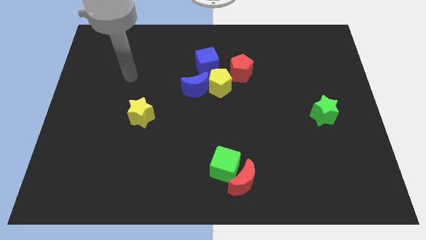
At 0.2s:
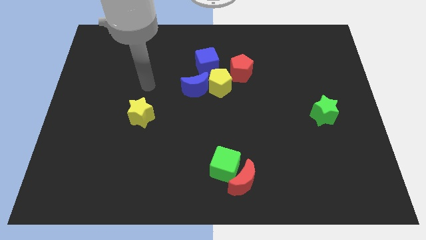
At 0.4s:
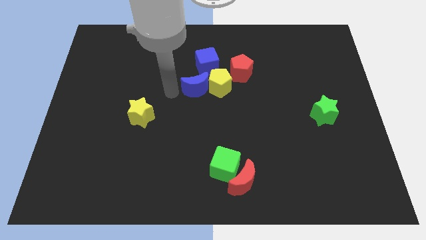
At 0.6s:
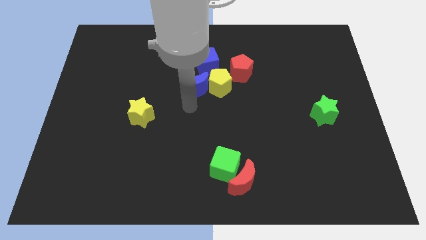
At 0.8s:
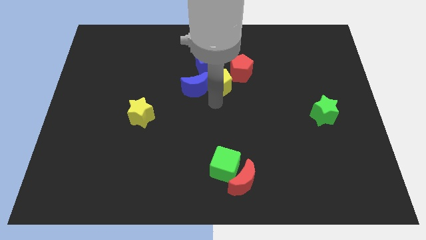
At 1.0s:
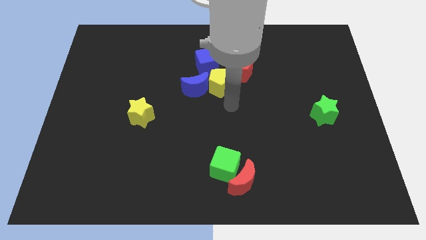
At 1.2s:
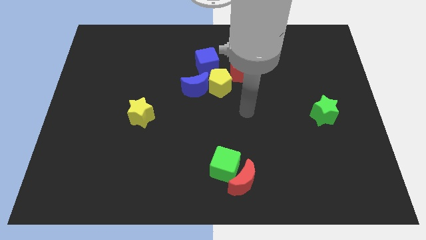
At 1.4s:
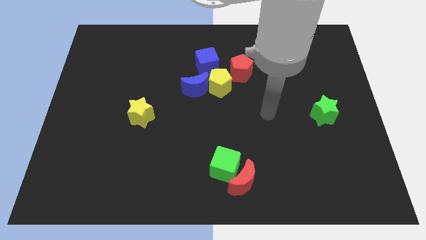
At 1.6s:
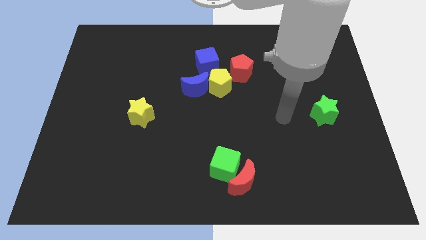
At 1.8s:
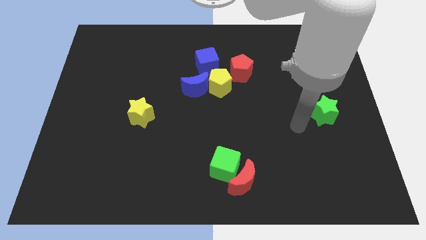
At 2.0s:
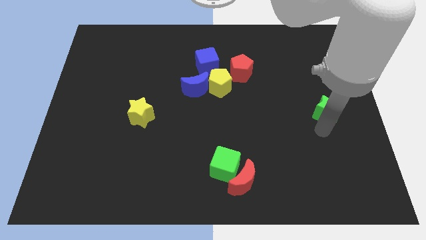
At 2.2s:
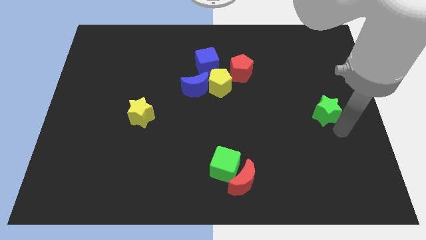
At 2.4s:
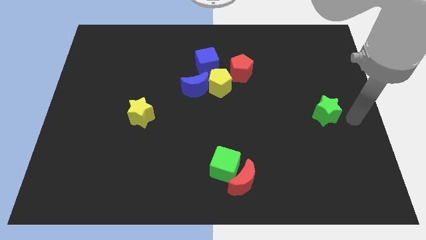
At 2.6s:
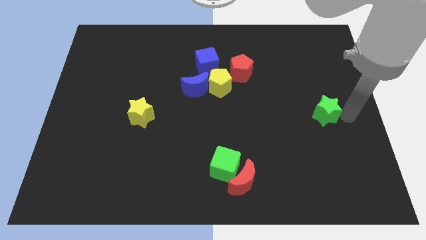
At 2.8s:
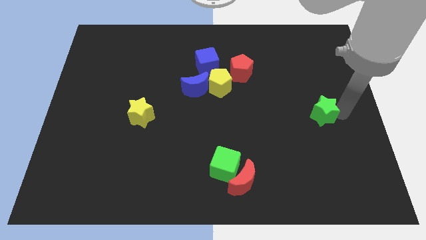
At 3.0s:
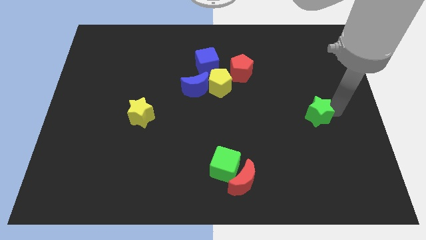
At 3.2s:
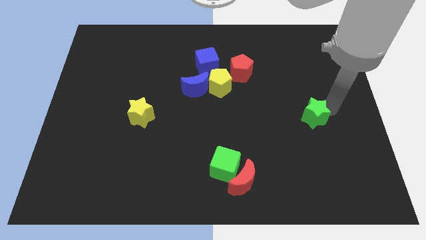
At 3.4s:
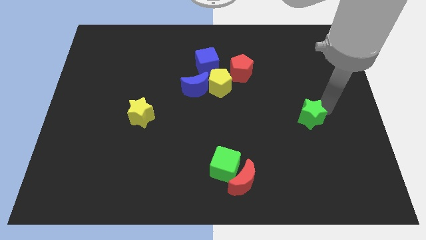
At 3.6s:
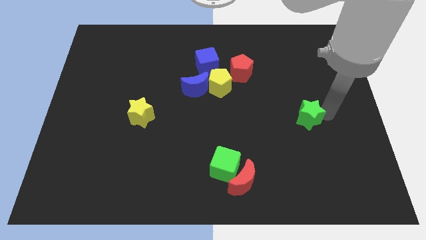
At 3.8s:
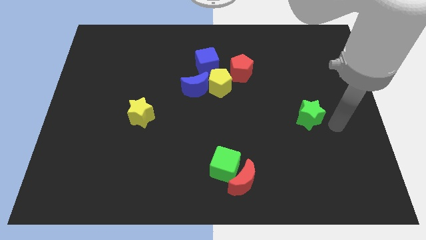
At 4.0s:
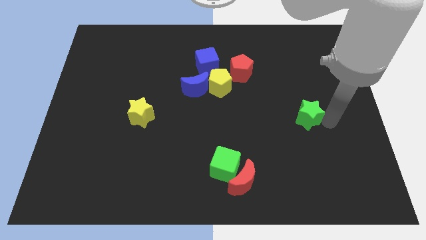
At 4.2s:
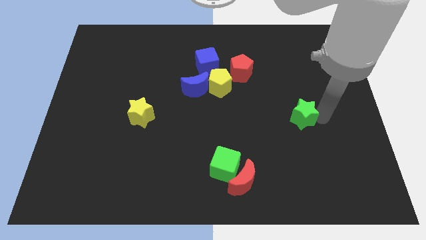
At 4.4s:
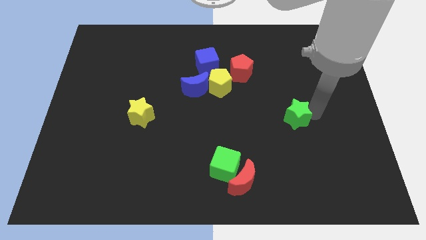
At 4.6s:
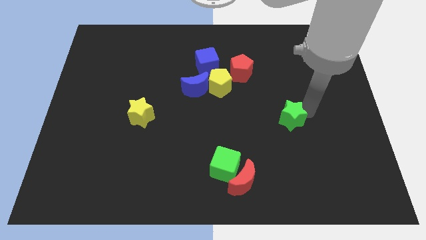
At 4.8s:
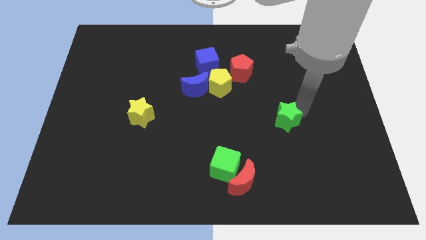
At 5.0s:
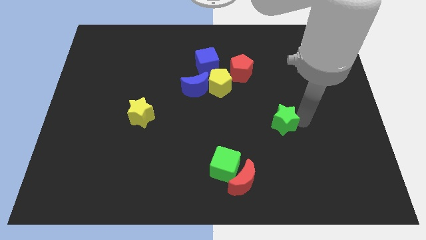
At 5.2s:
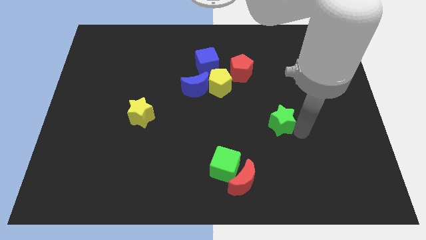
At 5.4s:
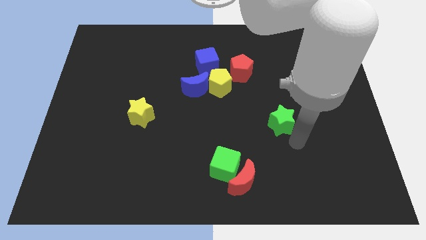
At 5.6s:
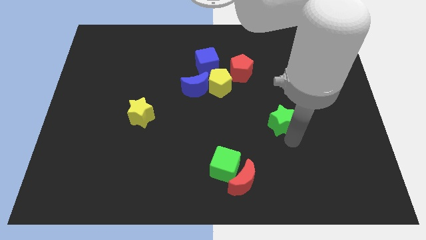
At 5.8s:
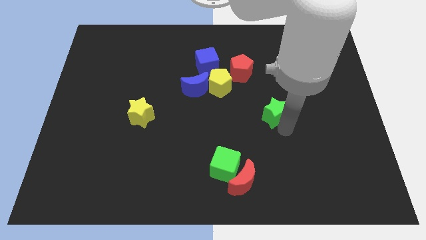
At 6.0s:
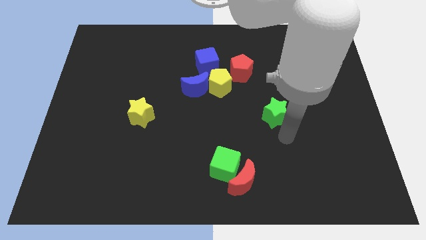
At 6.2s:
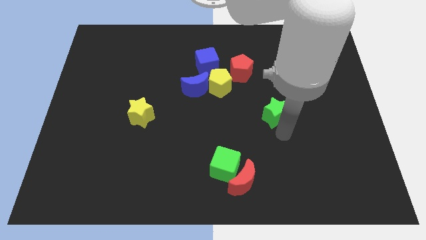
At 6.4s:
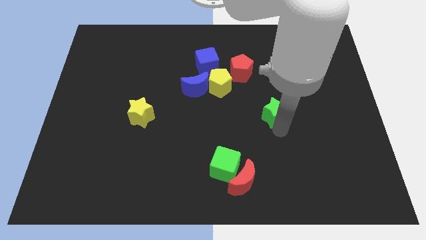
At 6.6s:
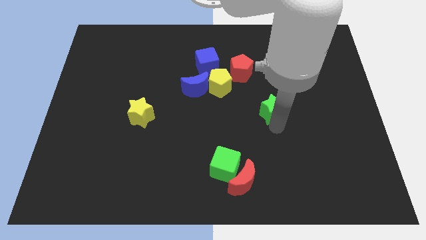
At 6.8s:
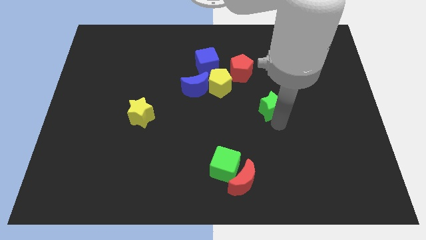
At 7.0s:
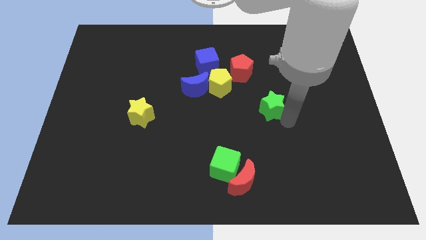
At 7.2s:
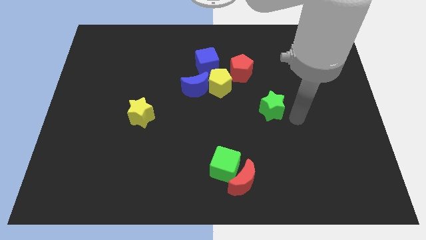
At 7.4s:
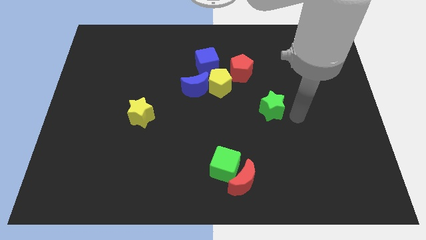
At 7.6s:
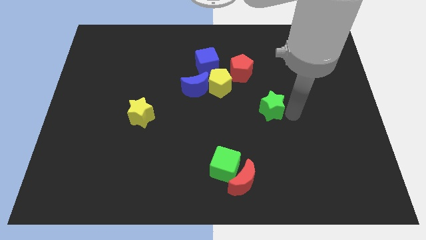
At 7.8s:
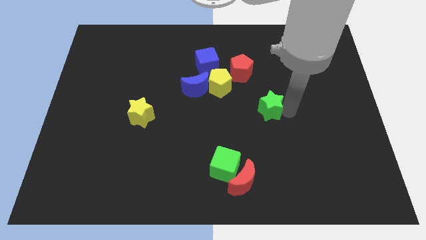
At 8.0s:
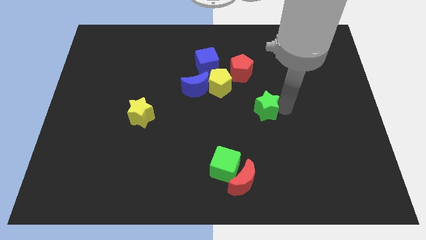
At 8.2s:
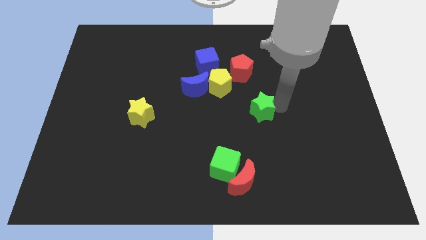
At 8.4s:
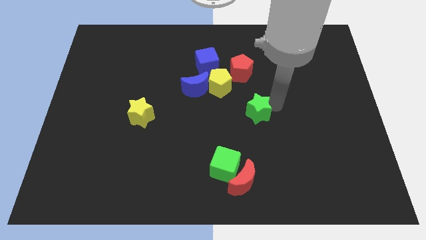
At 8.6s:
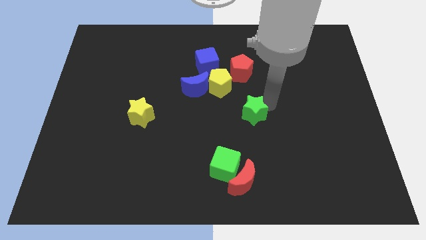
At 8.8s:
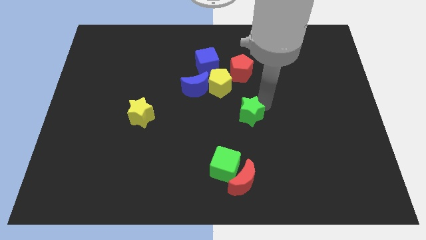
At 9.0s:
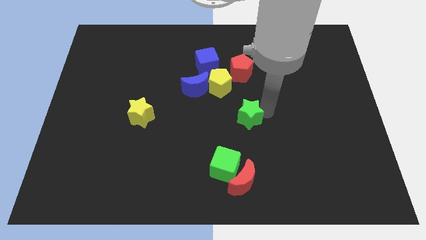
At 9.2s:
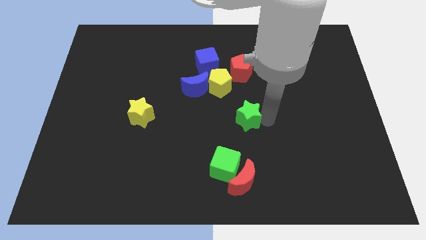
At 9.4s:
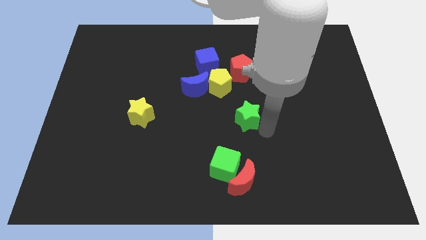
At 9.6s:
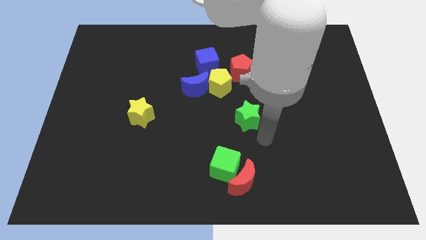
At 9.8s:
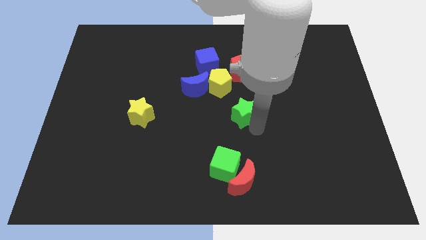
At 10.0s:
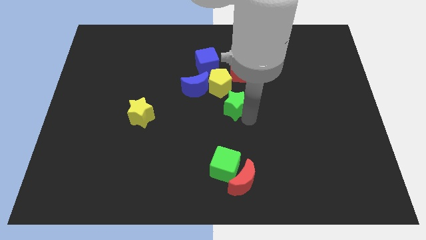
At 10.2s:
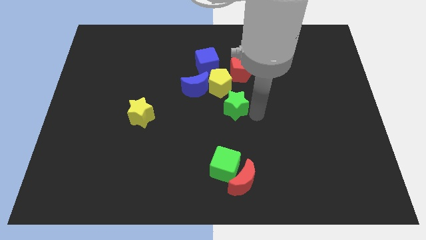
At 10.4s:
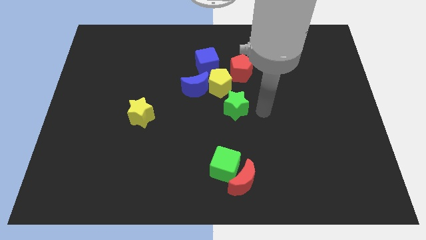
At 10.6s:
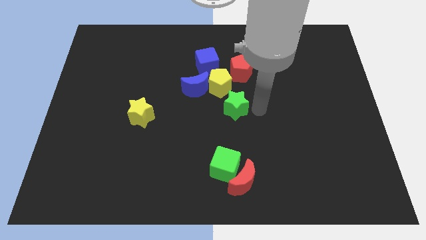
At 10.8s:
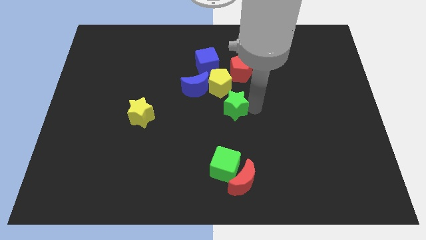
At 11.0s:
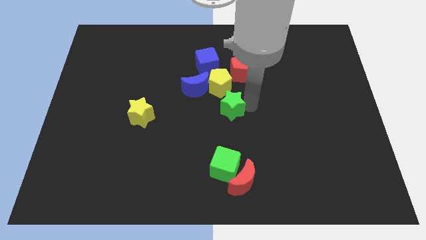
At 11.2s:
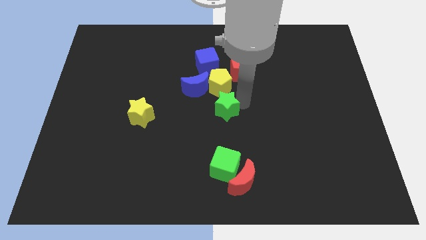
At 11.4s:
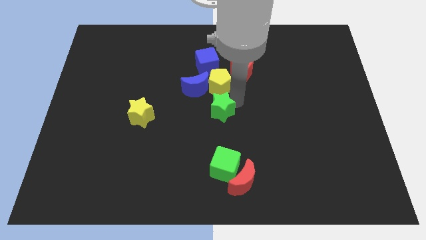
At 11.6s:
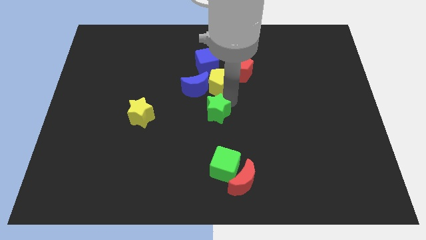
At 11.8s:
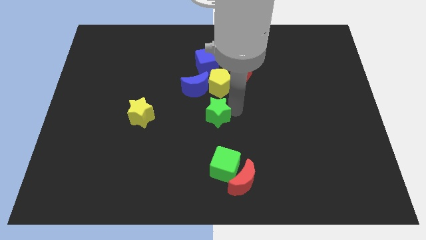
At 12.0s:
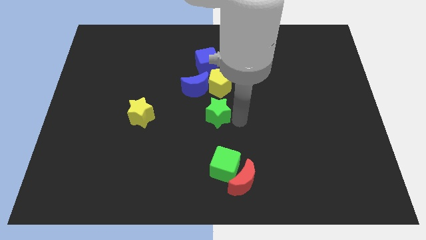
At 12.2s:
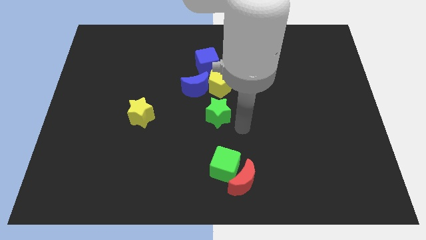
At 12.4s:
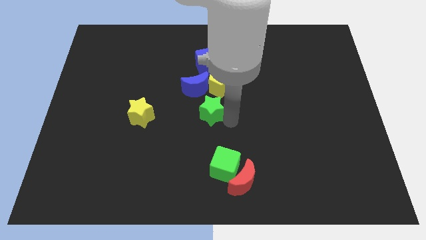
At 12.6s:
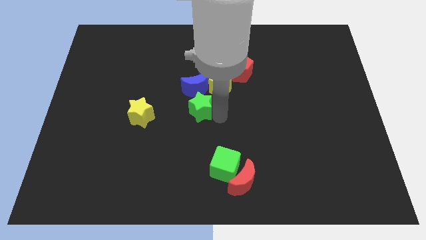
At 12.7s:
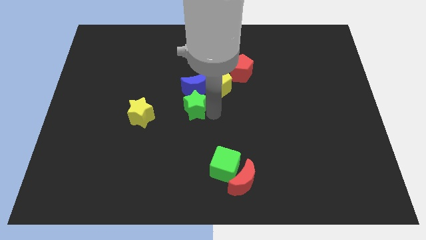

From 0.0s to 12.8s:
put the green star diagonally down and to the left of the blue moon

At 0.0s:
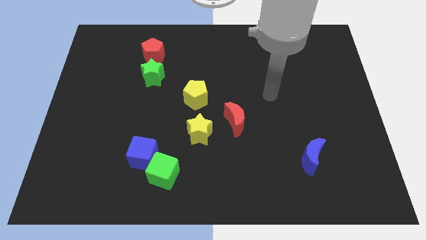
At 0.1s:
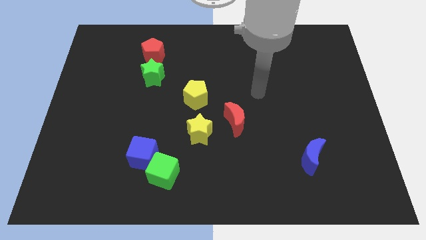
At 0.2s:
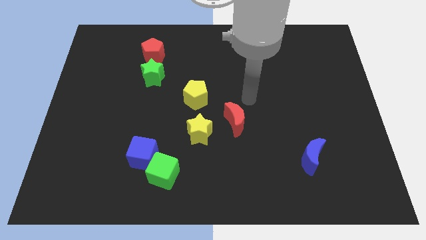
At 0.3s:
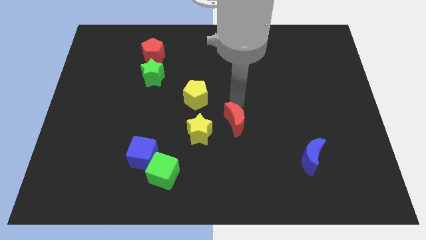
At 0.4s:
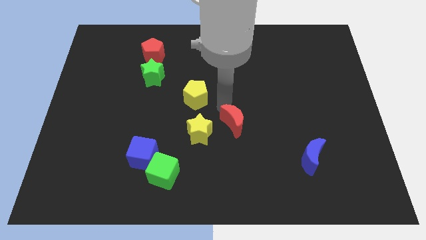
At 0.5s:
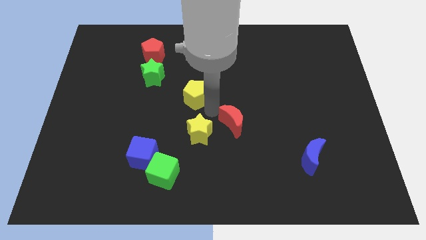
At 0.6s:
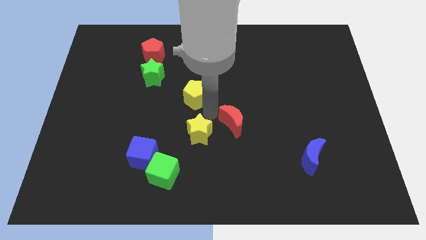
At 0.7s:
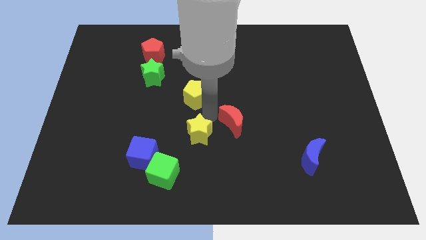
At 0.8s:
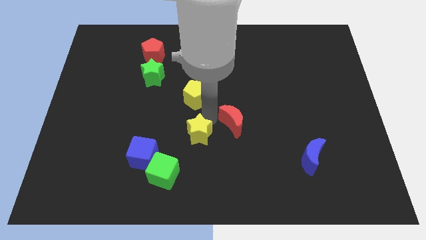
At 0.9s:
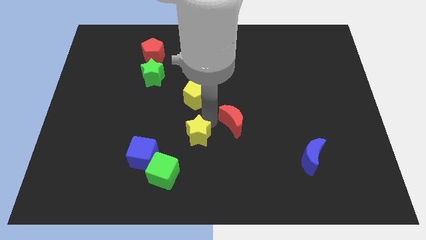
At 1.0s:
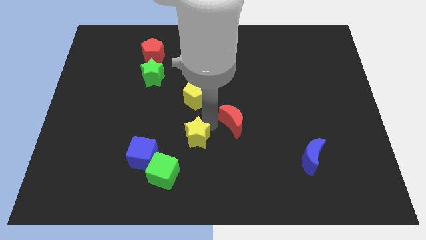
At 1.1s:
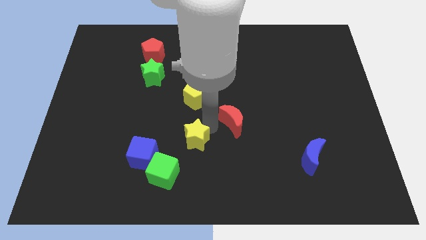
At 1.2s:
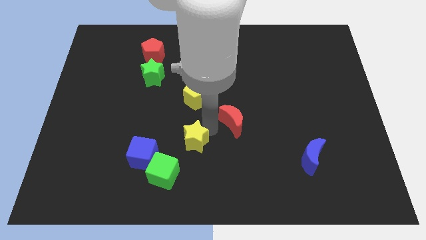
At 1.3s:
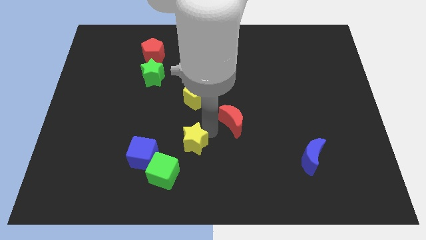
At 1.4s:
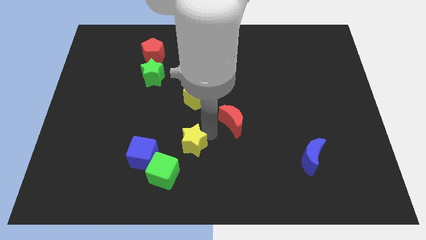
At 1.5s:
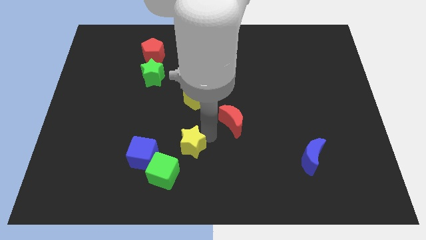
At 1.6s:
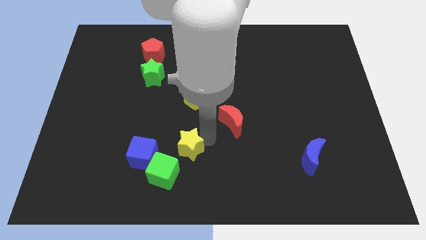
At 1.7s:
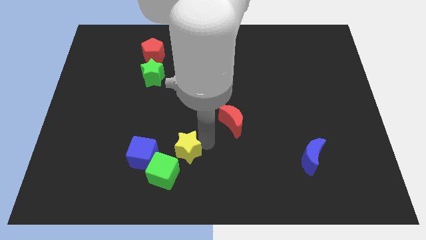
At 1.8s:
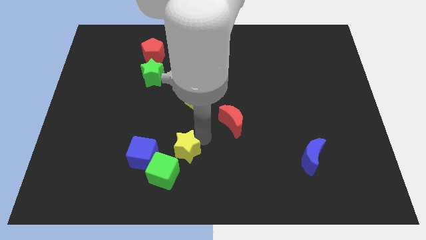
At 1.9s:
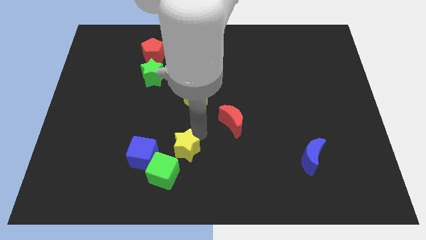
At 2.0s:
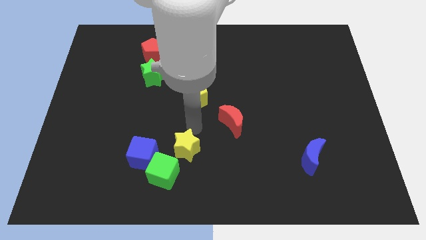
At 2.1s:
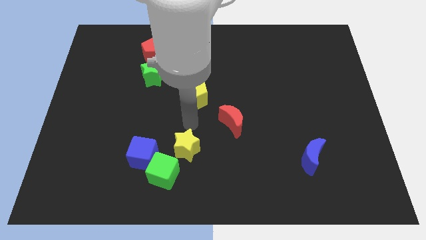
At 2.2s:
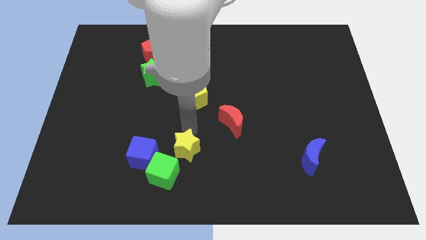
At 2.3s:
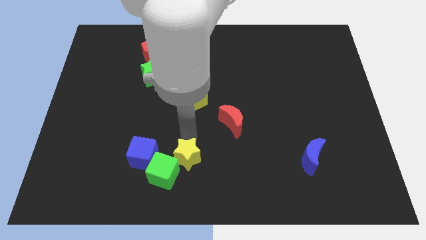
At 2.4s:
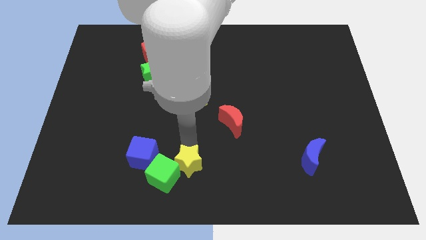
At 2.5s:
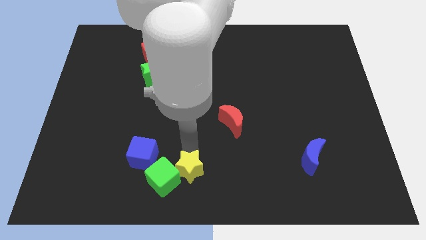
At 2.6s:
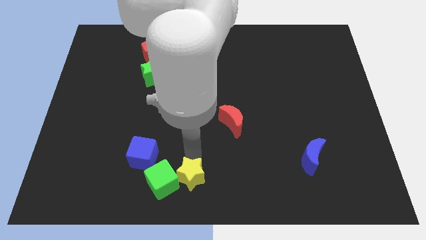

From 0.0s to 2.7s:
move the yellow star diagonally down and to the right of the blue cube
